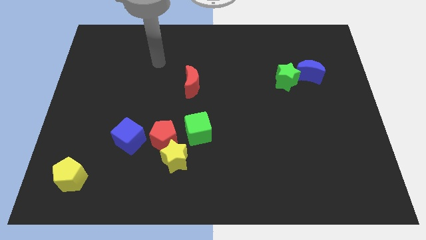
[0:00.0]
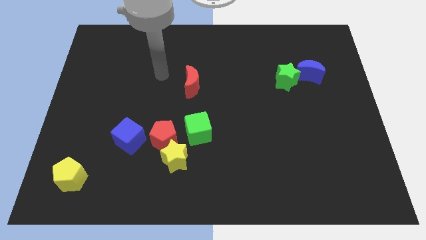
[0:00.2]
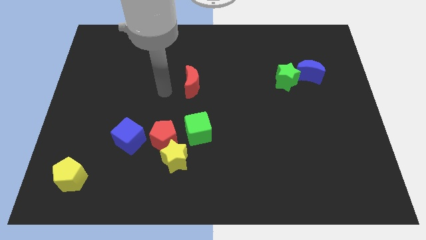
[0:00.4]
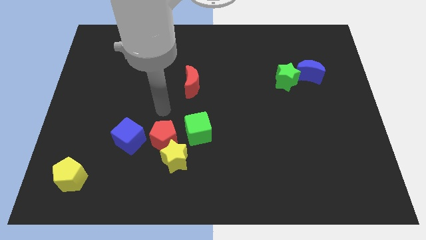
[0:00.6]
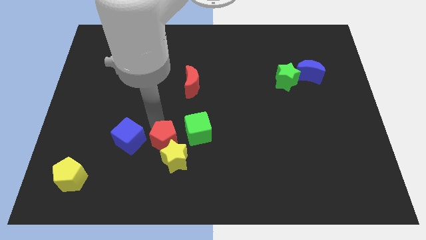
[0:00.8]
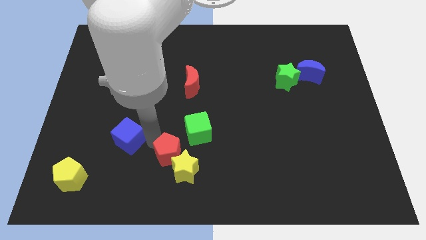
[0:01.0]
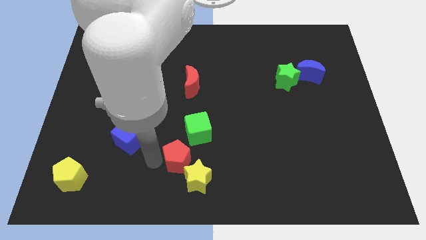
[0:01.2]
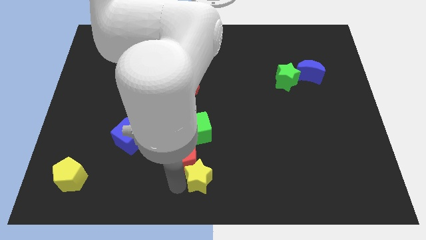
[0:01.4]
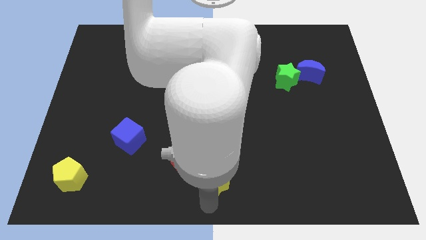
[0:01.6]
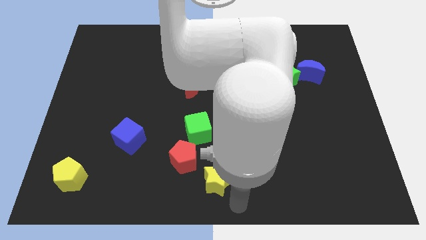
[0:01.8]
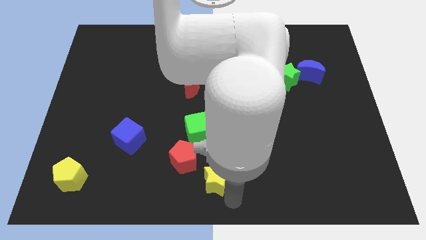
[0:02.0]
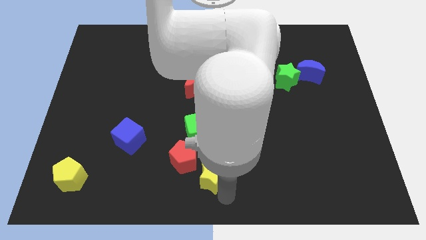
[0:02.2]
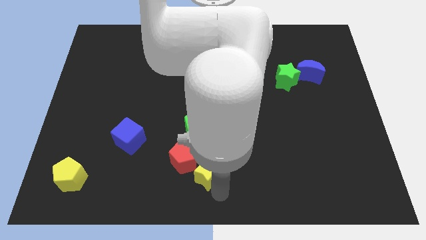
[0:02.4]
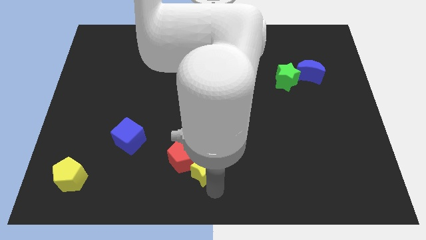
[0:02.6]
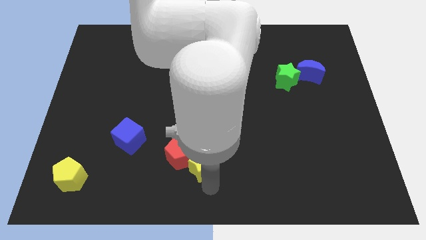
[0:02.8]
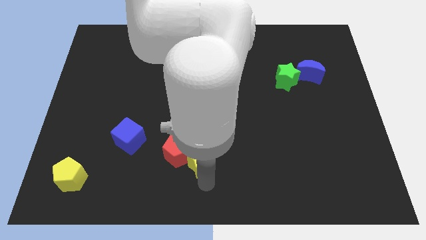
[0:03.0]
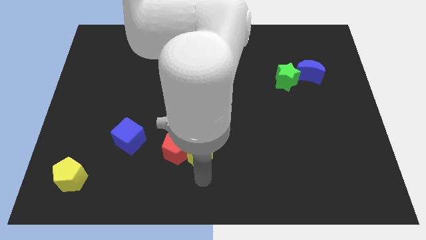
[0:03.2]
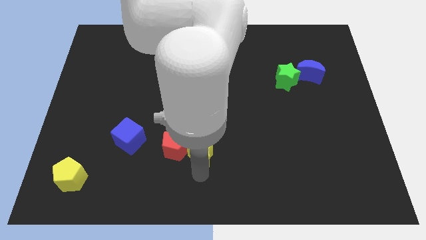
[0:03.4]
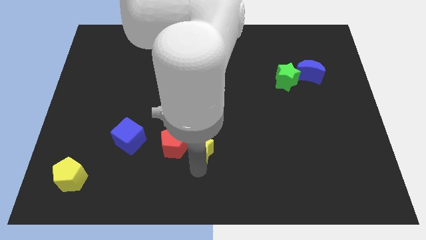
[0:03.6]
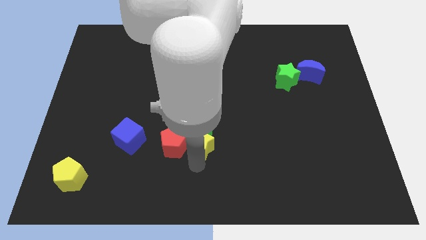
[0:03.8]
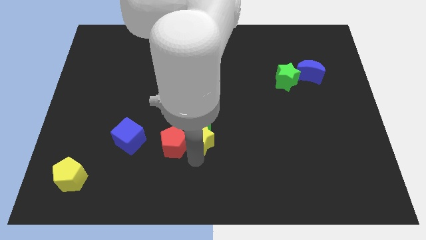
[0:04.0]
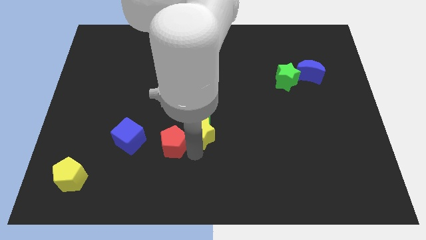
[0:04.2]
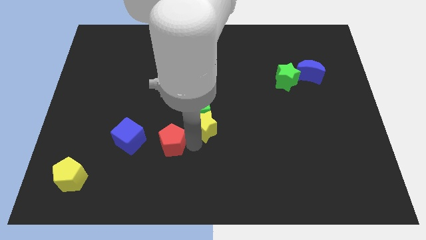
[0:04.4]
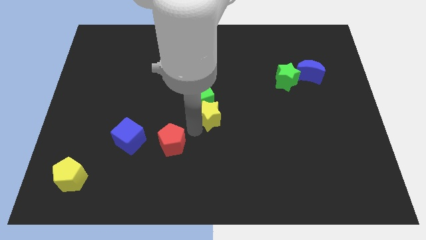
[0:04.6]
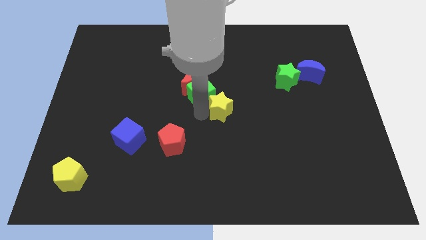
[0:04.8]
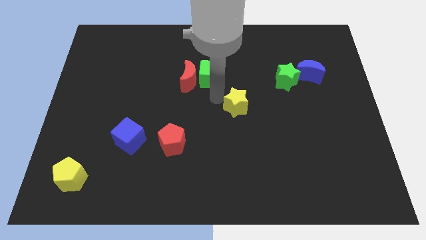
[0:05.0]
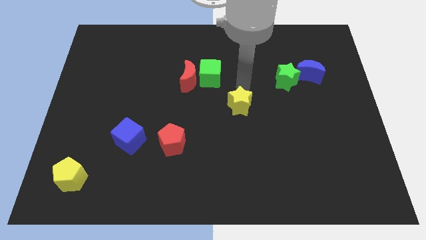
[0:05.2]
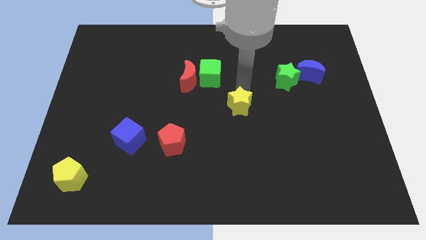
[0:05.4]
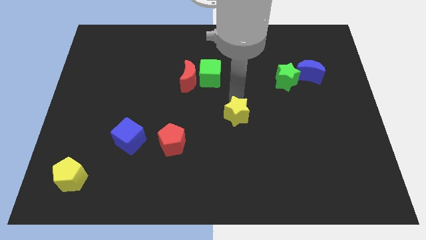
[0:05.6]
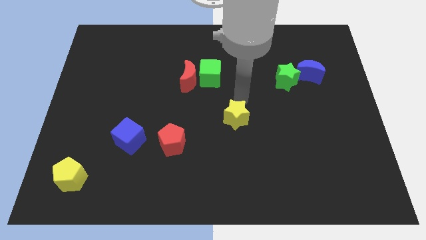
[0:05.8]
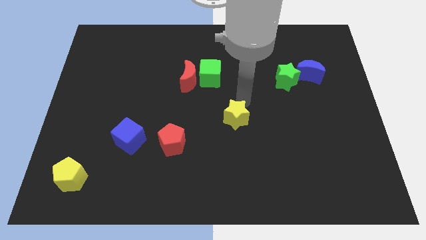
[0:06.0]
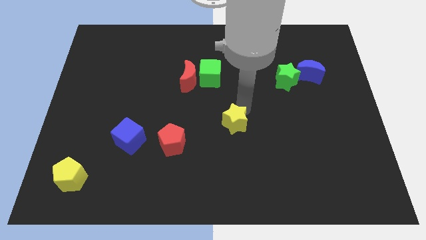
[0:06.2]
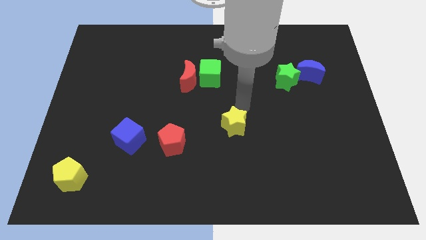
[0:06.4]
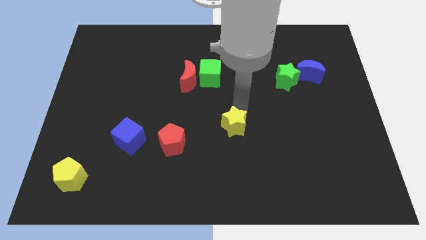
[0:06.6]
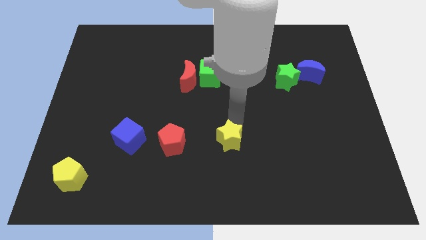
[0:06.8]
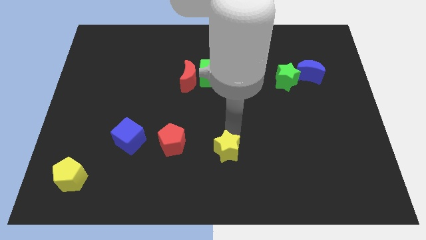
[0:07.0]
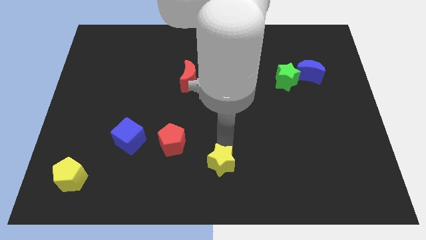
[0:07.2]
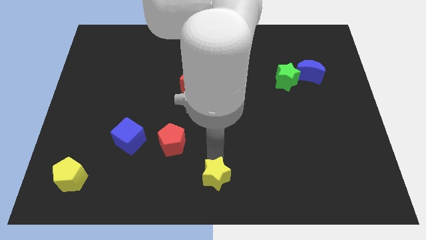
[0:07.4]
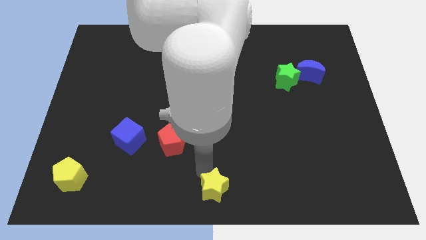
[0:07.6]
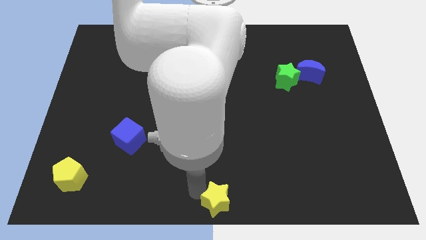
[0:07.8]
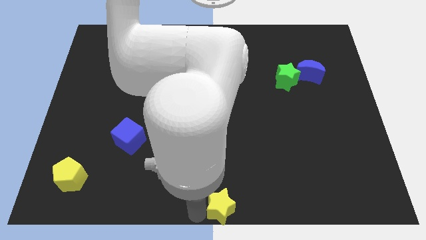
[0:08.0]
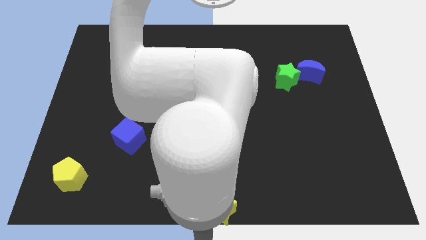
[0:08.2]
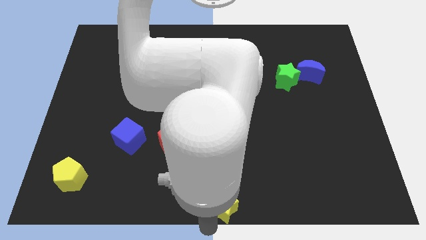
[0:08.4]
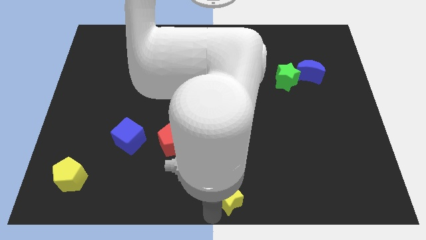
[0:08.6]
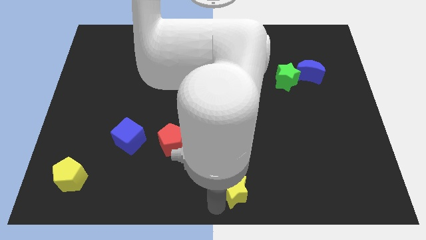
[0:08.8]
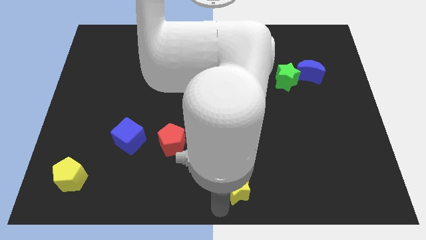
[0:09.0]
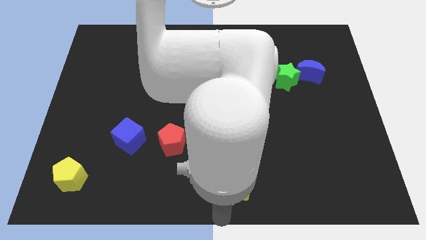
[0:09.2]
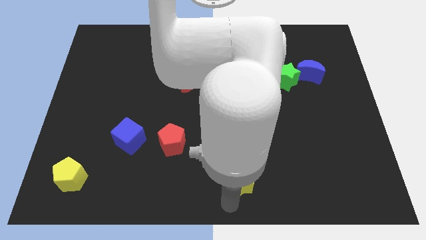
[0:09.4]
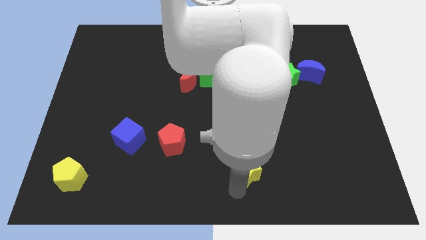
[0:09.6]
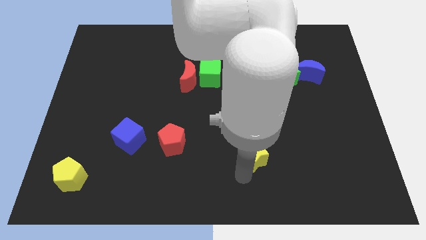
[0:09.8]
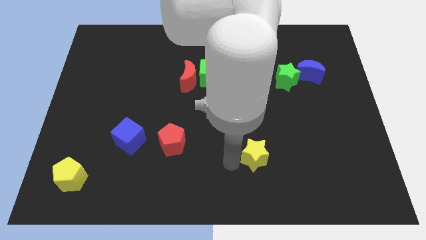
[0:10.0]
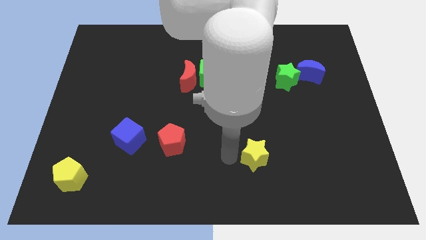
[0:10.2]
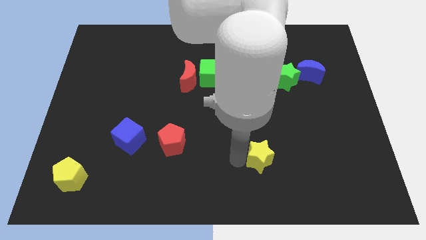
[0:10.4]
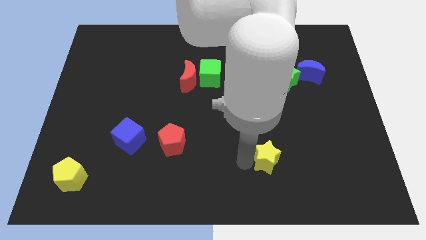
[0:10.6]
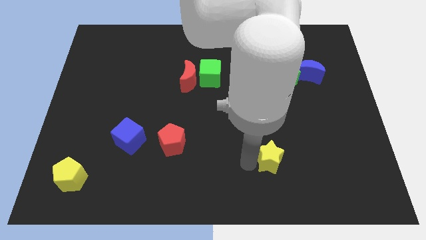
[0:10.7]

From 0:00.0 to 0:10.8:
push the yellow star right

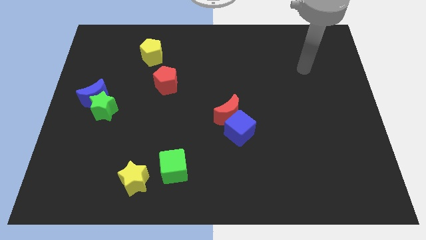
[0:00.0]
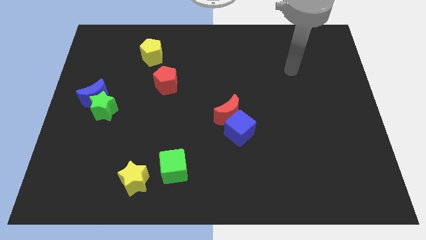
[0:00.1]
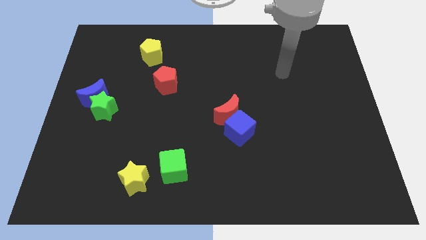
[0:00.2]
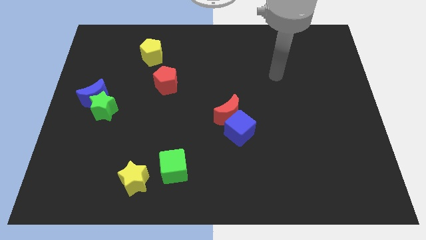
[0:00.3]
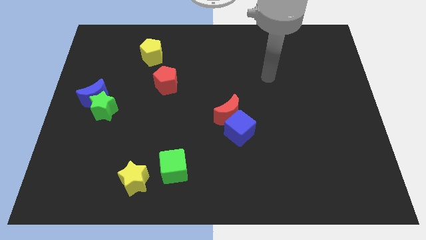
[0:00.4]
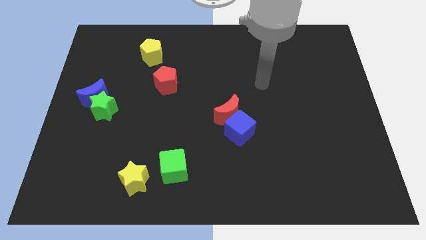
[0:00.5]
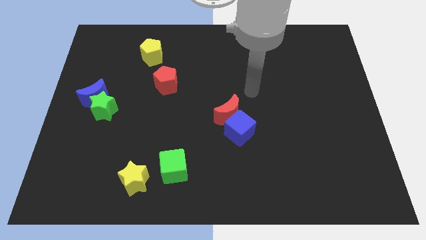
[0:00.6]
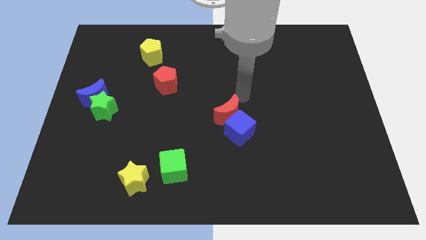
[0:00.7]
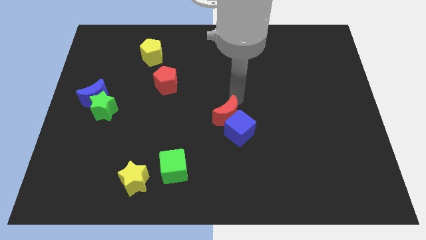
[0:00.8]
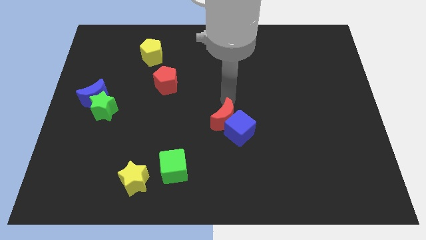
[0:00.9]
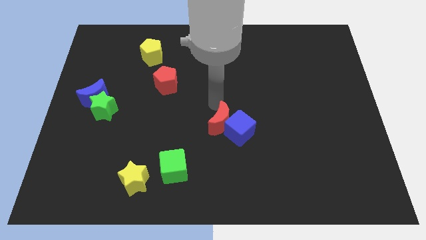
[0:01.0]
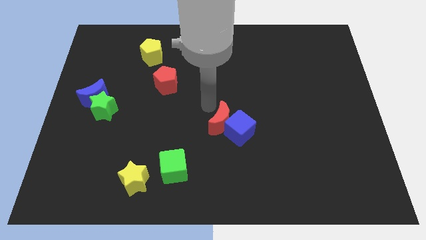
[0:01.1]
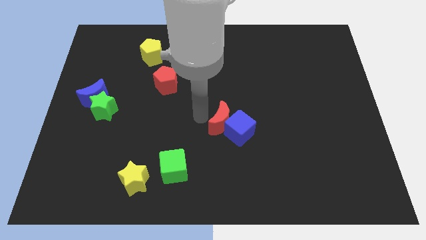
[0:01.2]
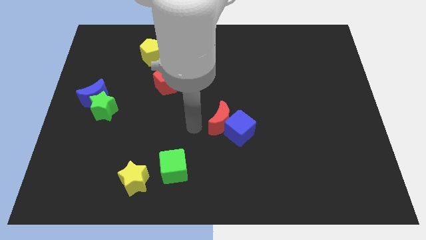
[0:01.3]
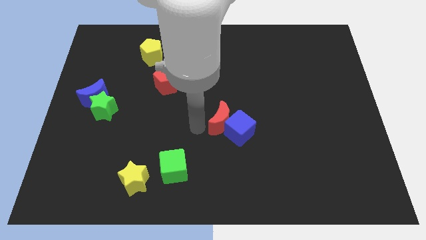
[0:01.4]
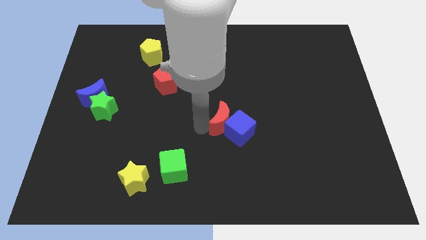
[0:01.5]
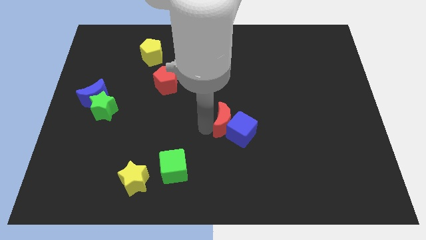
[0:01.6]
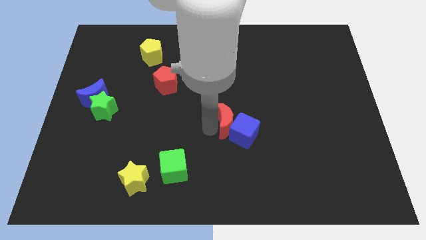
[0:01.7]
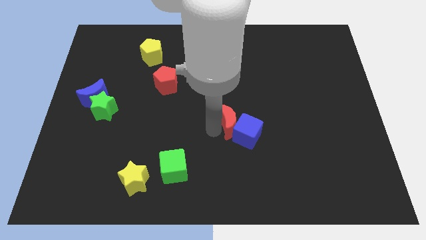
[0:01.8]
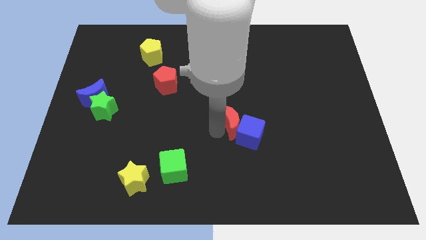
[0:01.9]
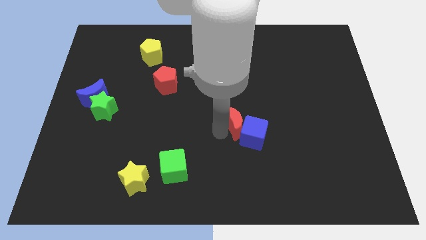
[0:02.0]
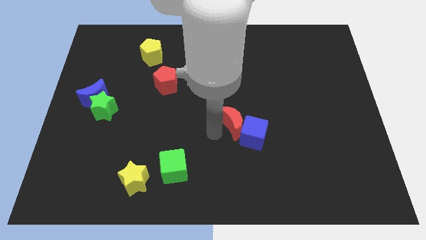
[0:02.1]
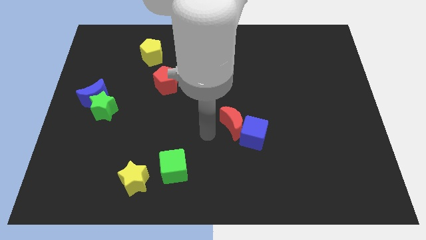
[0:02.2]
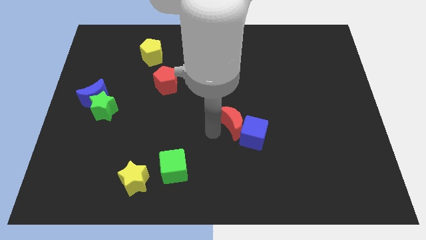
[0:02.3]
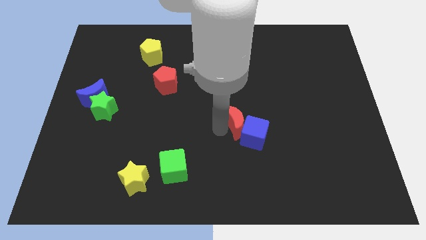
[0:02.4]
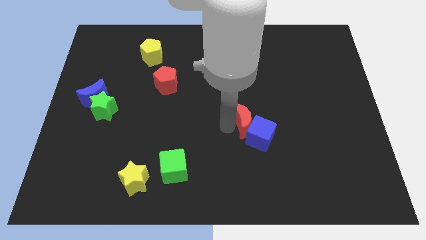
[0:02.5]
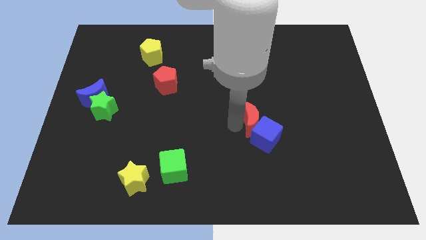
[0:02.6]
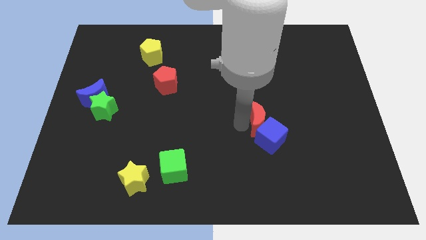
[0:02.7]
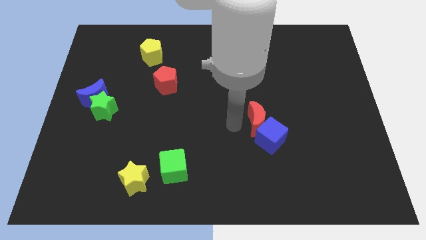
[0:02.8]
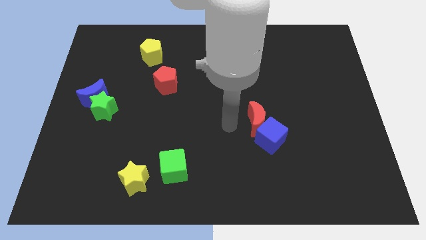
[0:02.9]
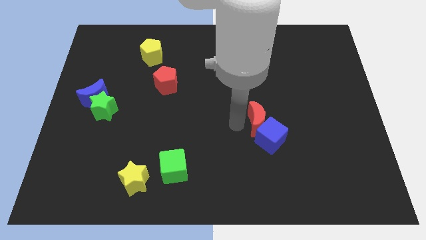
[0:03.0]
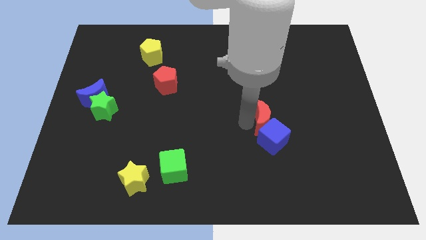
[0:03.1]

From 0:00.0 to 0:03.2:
push the red moon slightly right
